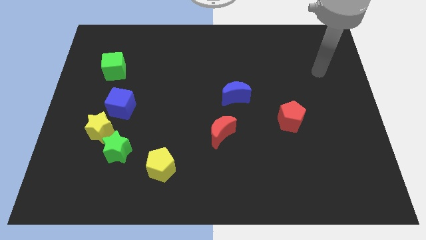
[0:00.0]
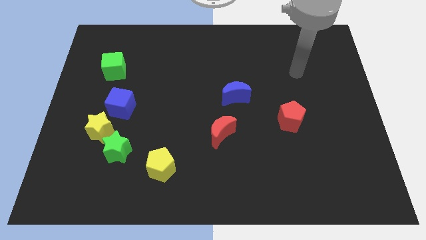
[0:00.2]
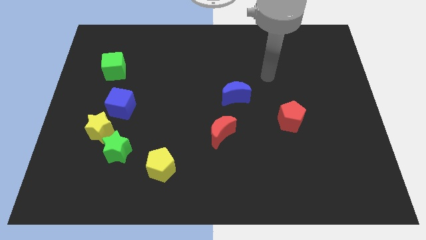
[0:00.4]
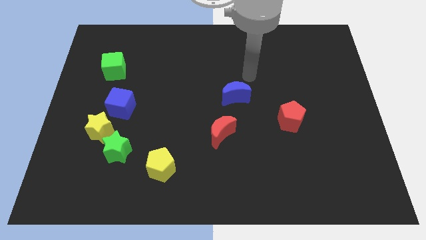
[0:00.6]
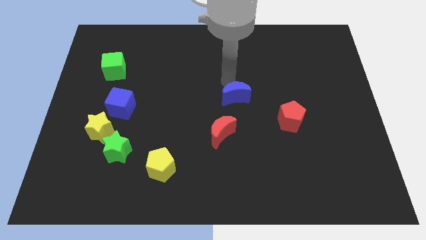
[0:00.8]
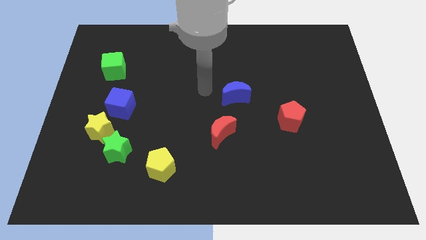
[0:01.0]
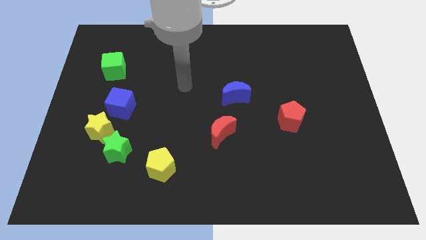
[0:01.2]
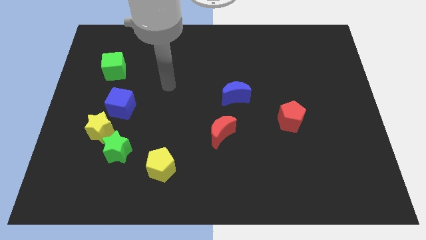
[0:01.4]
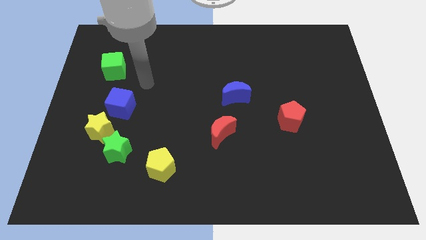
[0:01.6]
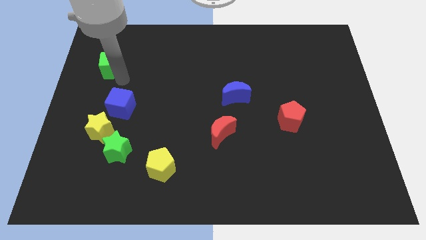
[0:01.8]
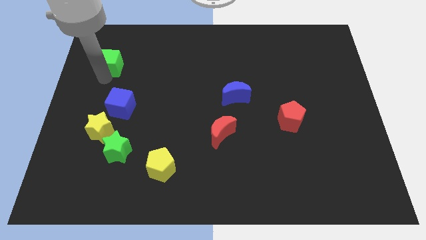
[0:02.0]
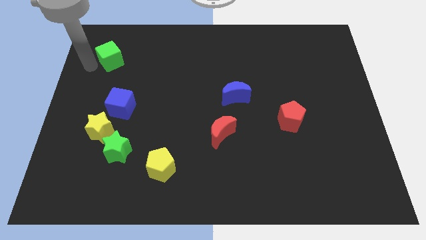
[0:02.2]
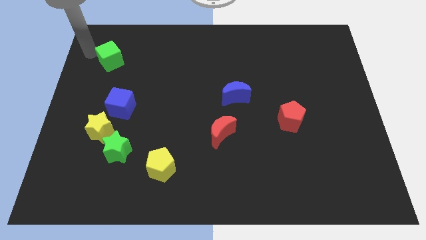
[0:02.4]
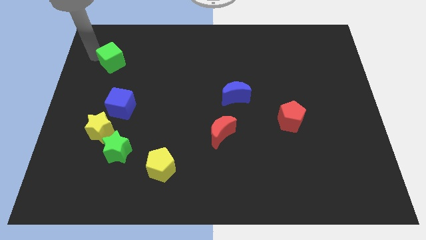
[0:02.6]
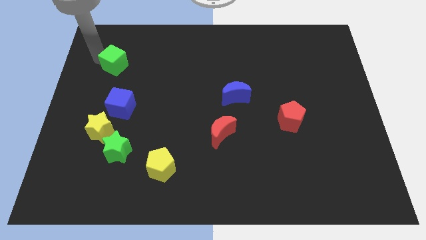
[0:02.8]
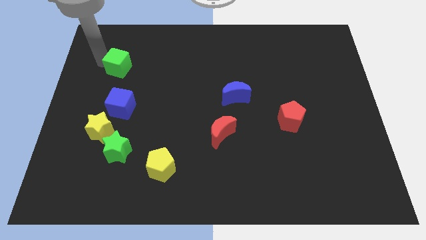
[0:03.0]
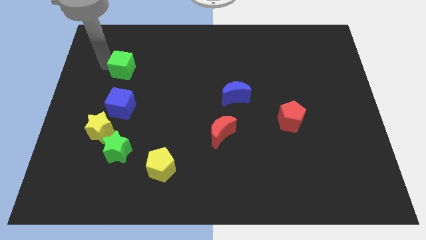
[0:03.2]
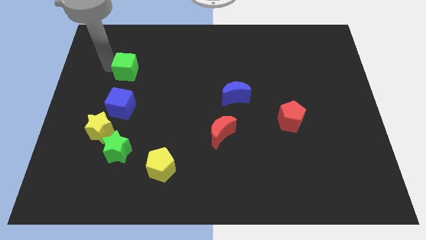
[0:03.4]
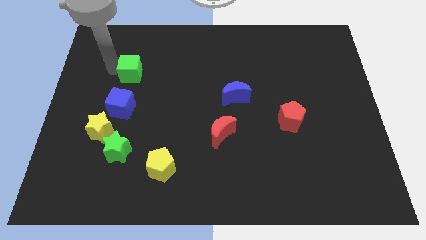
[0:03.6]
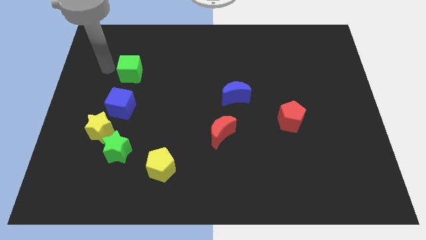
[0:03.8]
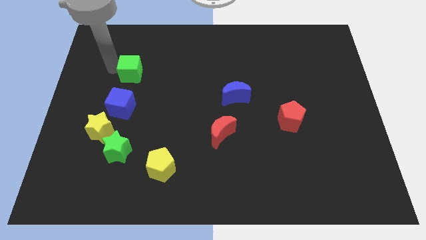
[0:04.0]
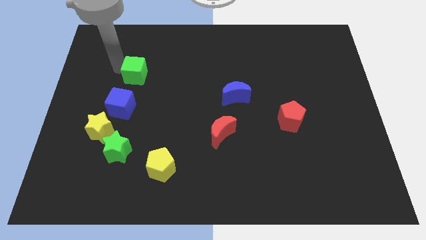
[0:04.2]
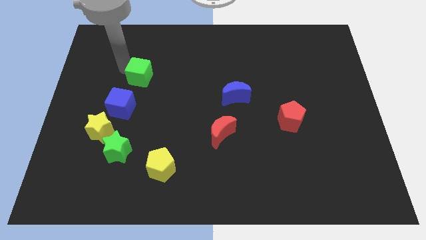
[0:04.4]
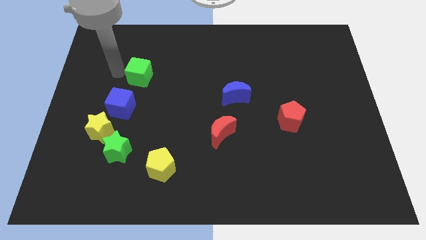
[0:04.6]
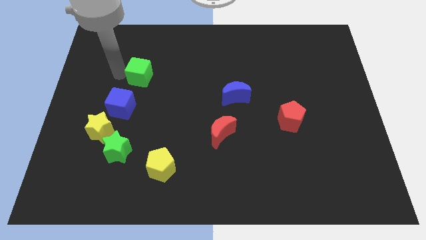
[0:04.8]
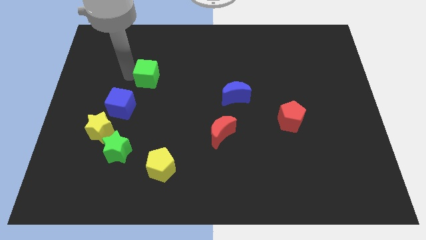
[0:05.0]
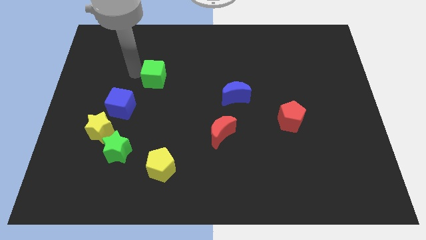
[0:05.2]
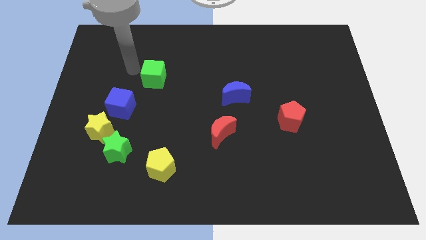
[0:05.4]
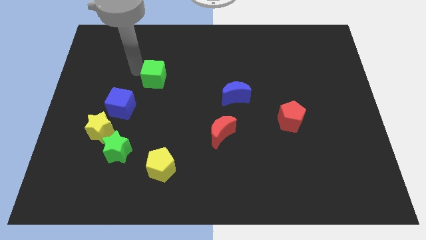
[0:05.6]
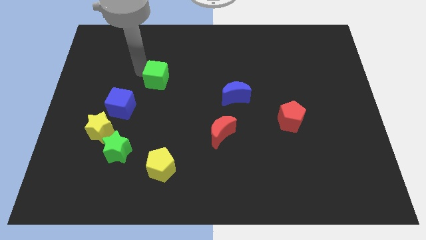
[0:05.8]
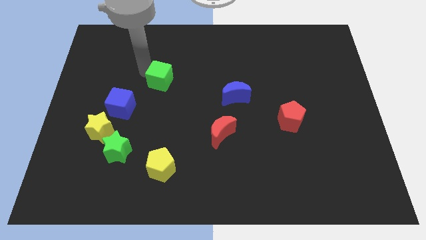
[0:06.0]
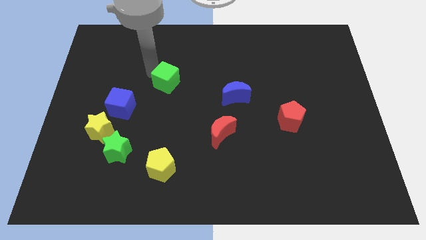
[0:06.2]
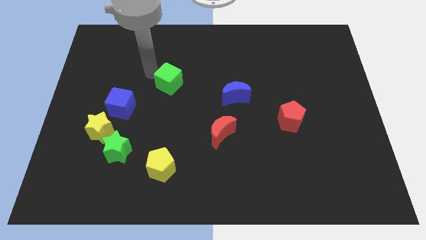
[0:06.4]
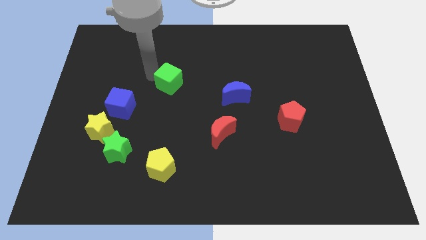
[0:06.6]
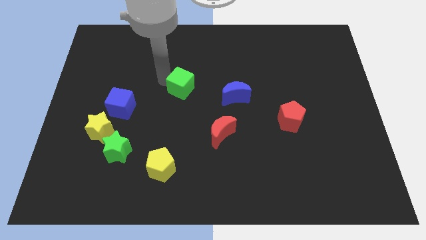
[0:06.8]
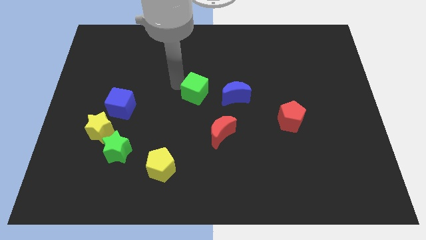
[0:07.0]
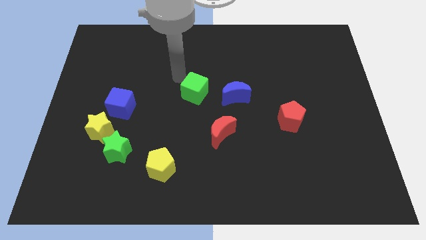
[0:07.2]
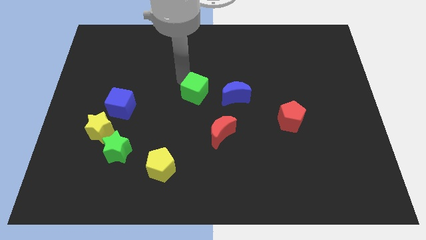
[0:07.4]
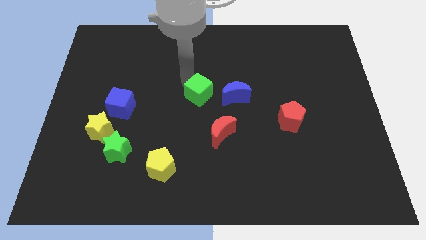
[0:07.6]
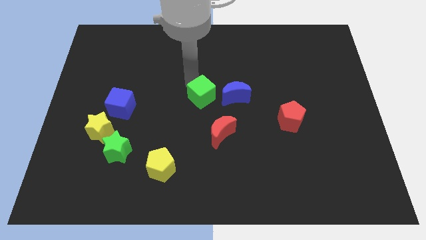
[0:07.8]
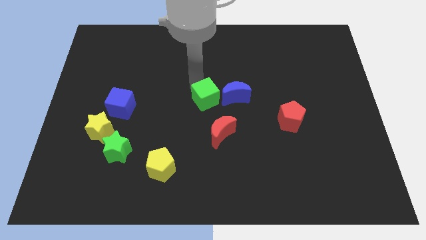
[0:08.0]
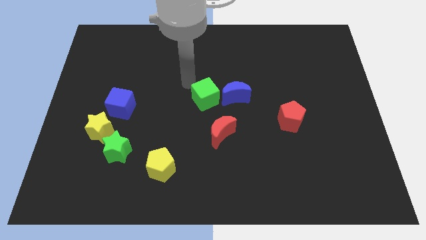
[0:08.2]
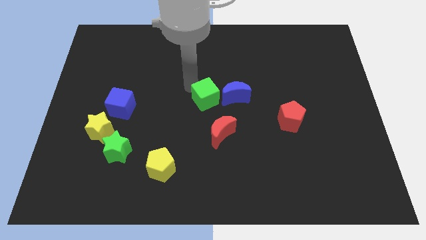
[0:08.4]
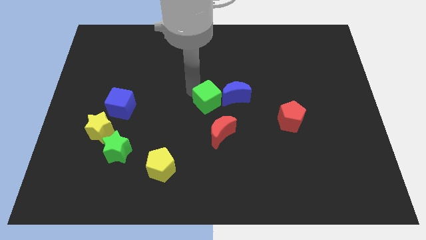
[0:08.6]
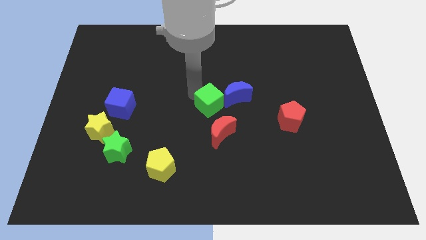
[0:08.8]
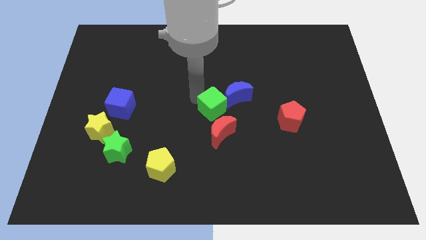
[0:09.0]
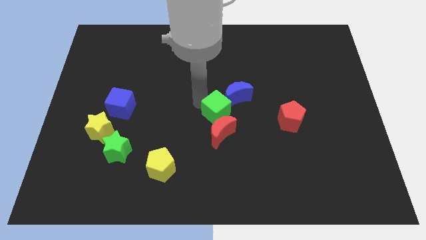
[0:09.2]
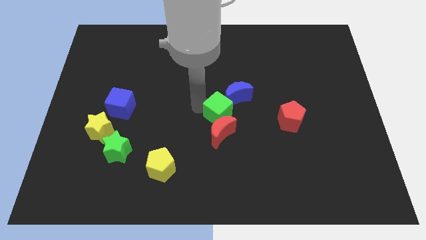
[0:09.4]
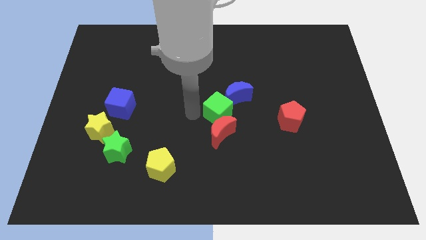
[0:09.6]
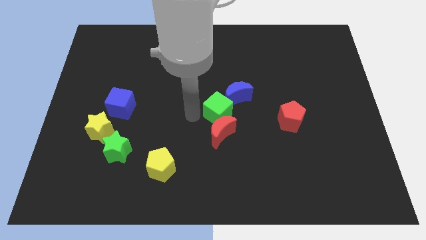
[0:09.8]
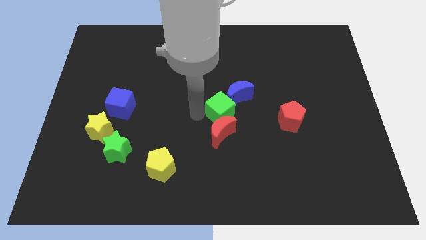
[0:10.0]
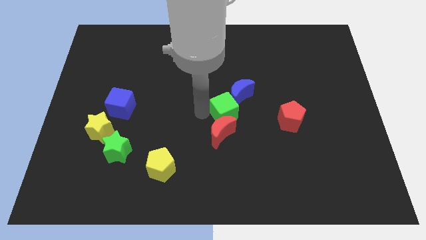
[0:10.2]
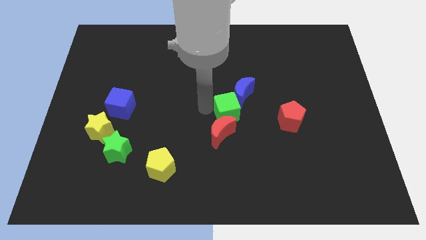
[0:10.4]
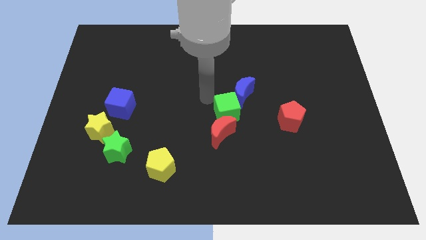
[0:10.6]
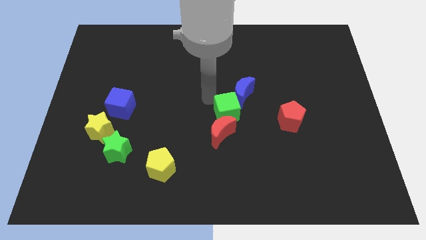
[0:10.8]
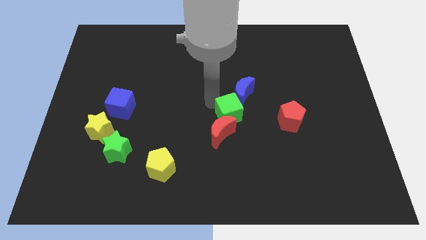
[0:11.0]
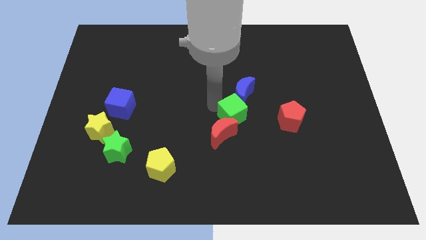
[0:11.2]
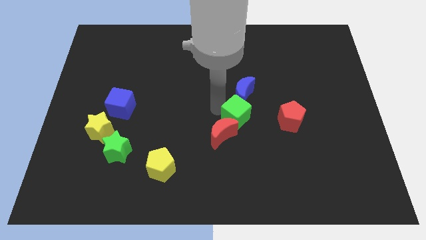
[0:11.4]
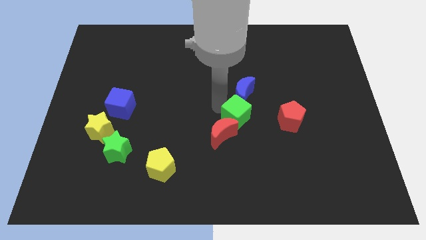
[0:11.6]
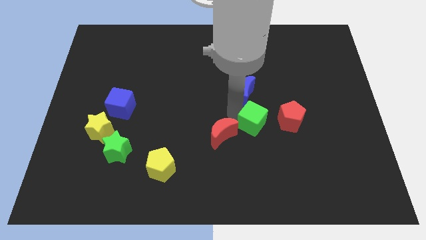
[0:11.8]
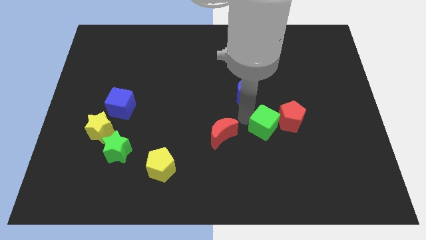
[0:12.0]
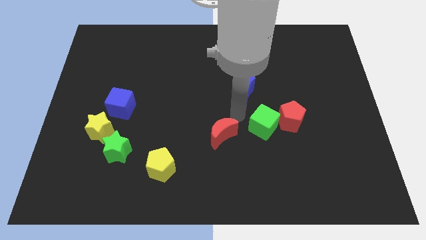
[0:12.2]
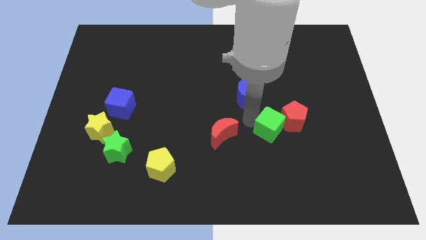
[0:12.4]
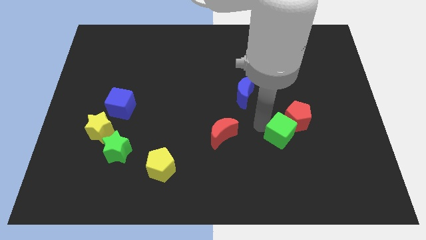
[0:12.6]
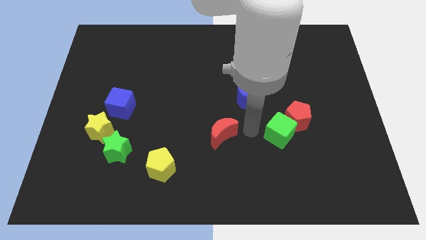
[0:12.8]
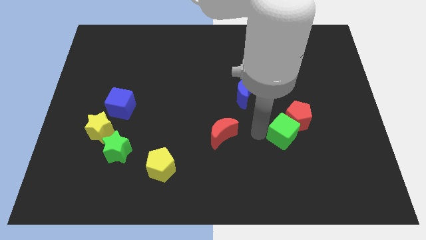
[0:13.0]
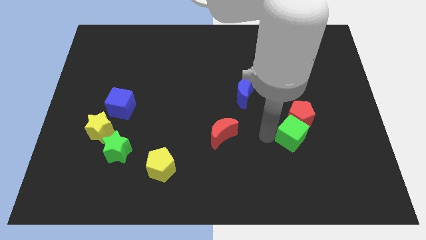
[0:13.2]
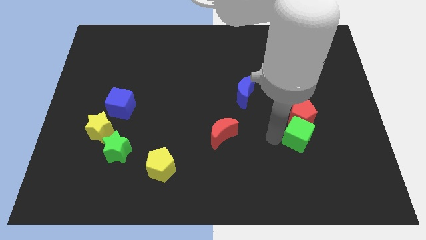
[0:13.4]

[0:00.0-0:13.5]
push the green cube to the bottom right side of the red pentagon

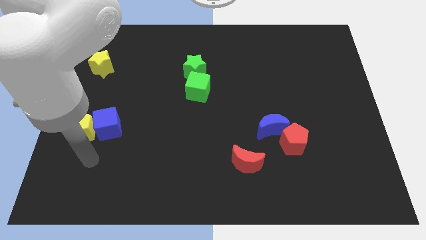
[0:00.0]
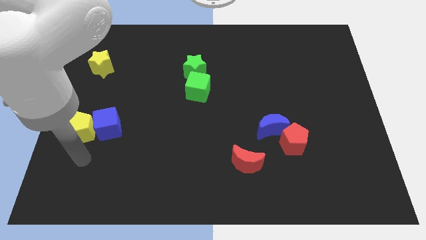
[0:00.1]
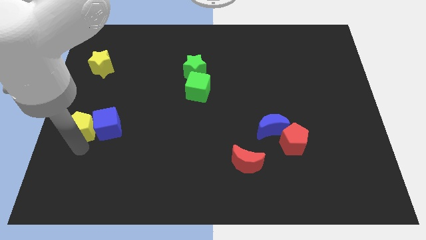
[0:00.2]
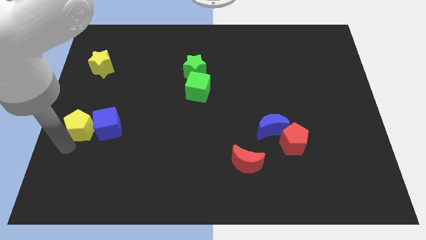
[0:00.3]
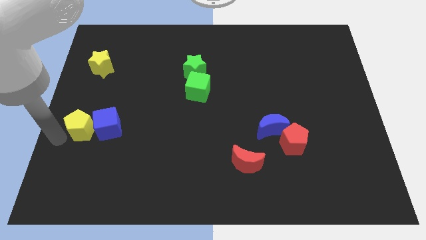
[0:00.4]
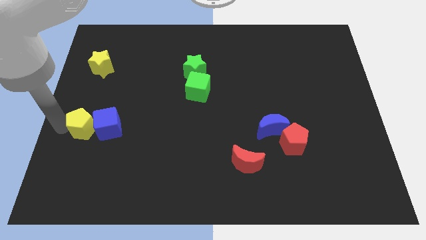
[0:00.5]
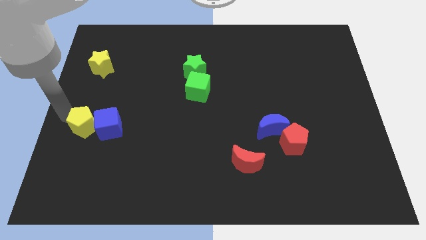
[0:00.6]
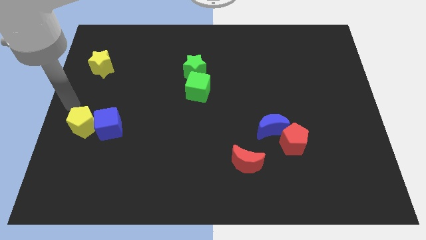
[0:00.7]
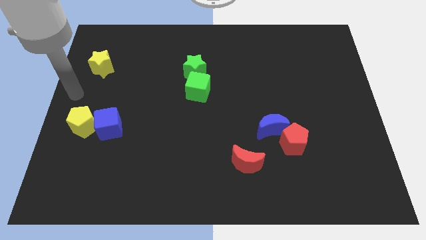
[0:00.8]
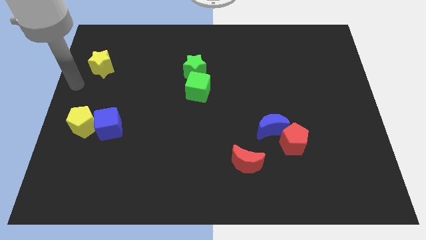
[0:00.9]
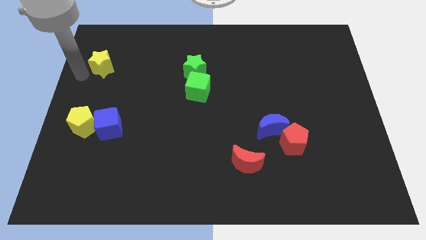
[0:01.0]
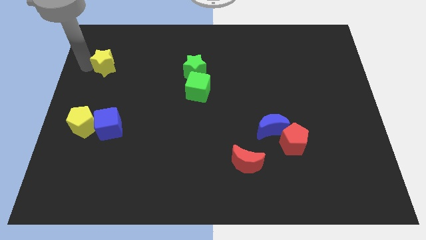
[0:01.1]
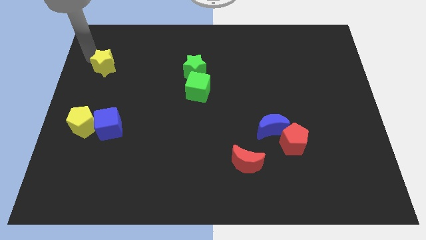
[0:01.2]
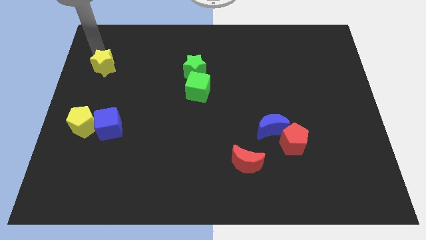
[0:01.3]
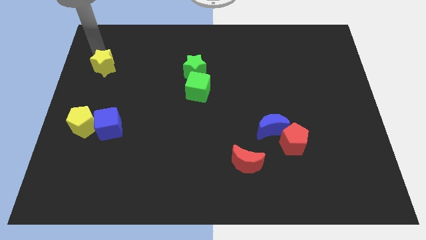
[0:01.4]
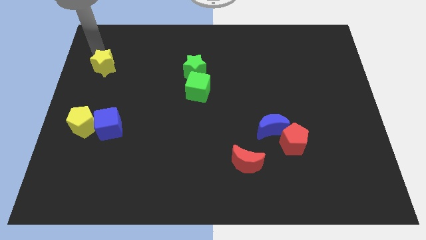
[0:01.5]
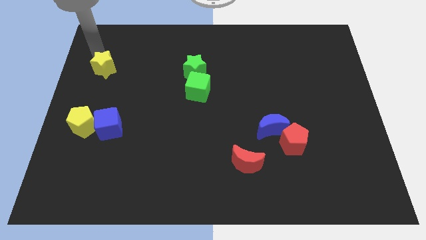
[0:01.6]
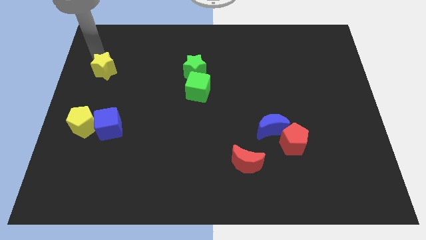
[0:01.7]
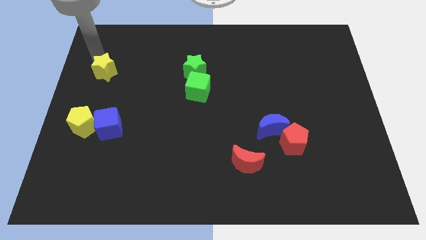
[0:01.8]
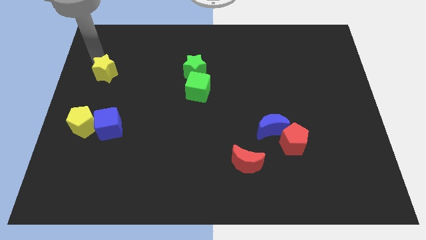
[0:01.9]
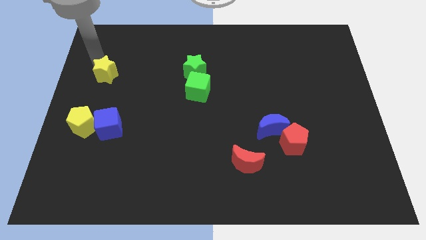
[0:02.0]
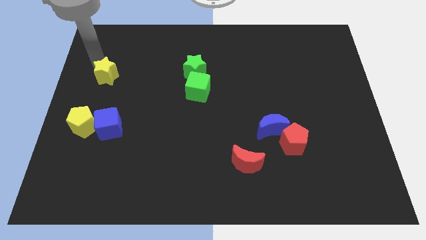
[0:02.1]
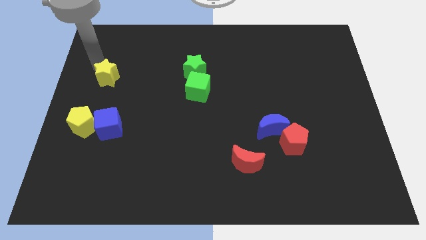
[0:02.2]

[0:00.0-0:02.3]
move the yellow star to the top of the blue cube
